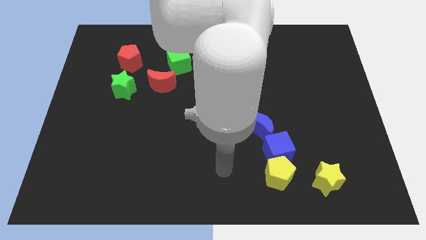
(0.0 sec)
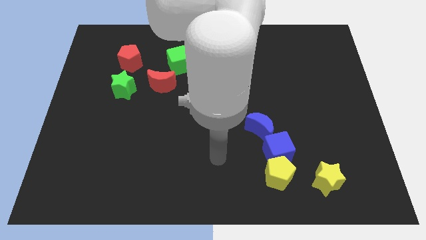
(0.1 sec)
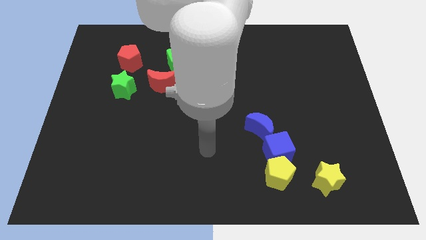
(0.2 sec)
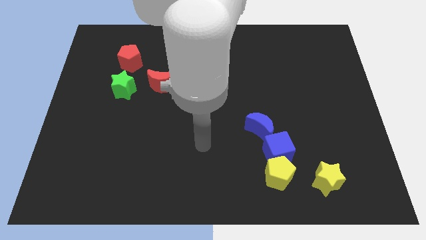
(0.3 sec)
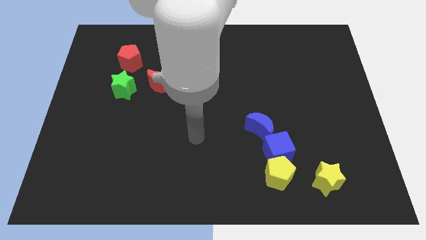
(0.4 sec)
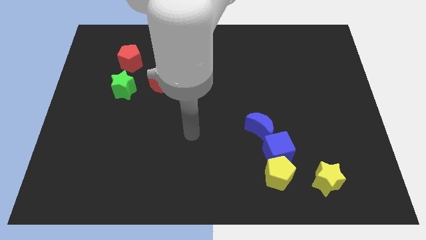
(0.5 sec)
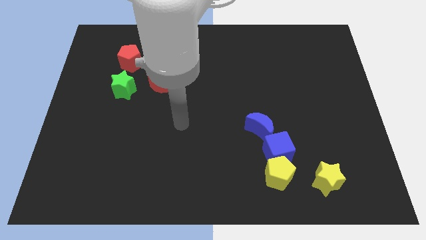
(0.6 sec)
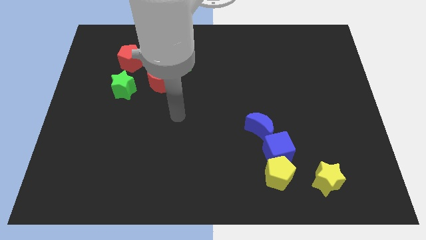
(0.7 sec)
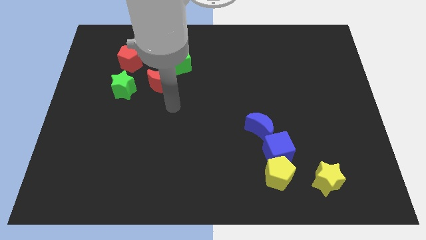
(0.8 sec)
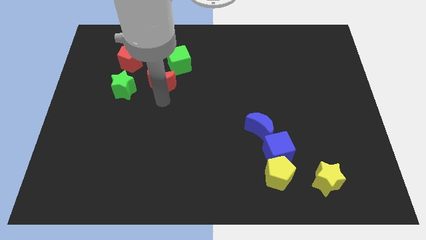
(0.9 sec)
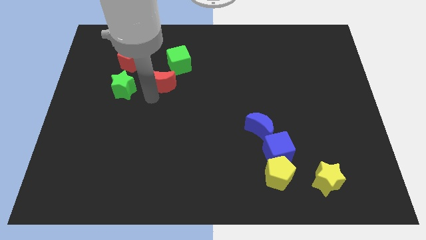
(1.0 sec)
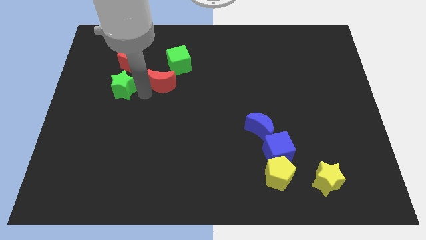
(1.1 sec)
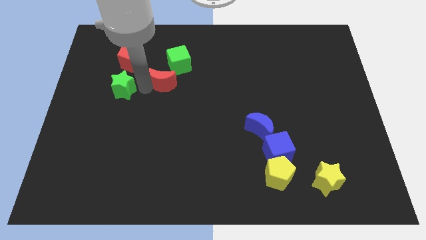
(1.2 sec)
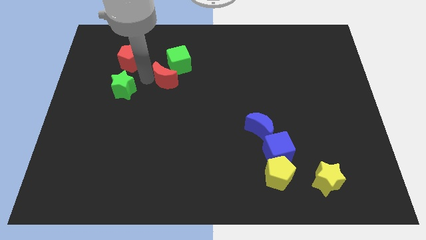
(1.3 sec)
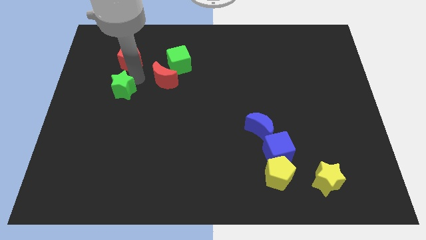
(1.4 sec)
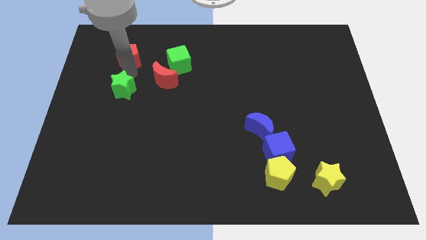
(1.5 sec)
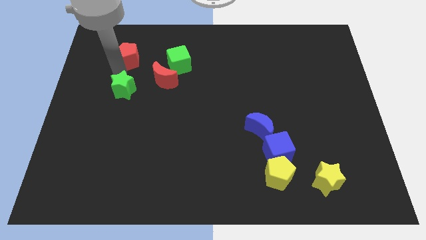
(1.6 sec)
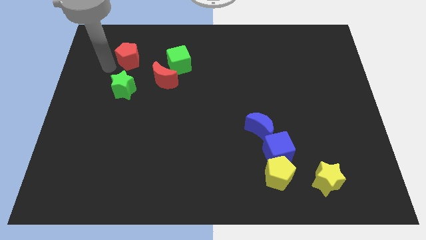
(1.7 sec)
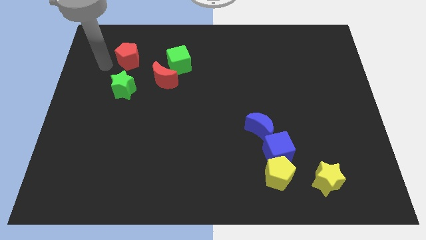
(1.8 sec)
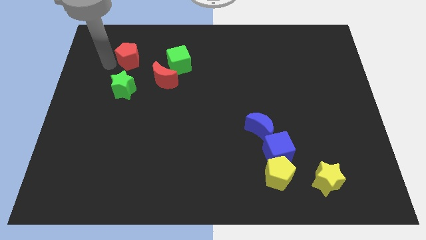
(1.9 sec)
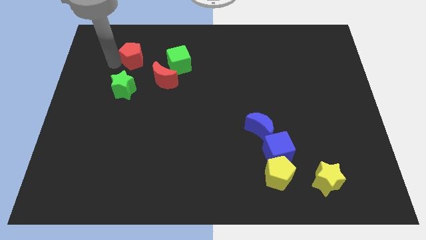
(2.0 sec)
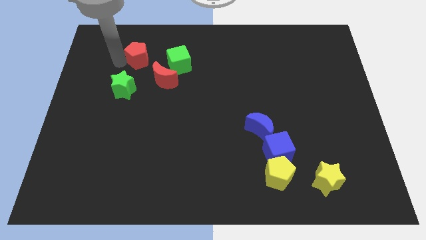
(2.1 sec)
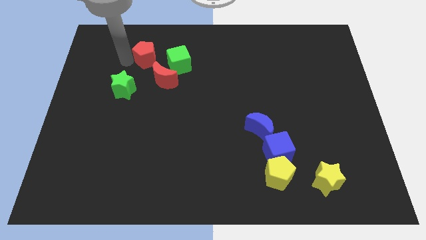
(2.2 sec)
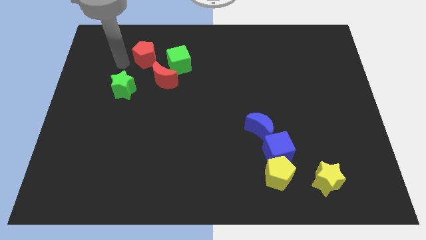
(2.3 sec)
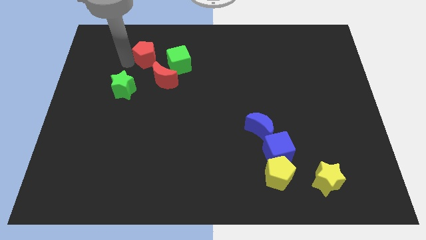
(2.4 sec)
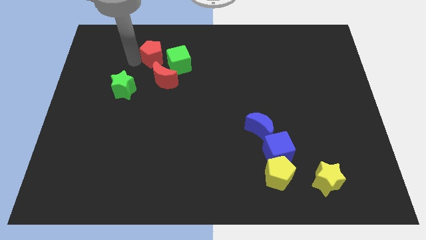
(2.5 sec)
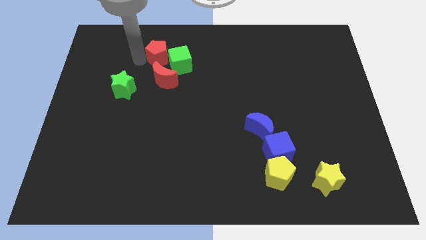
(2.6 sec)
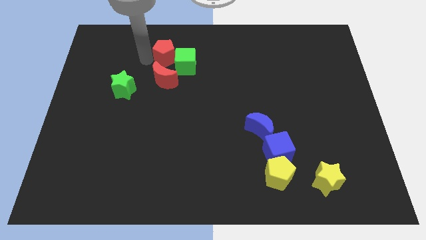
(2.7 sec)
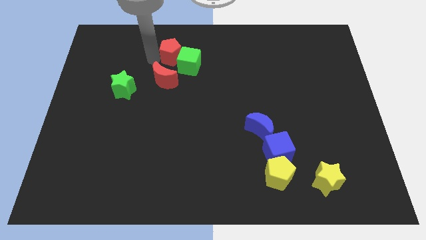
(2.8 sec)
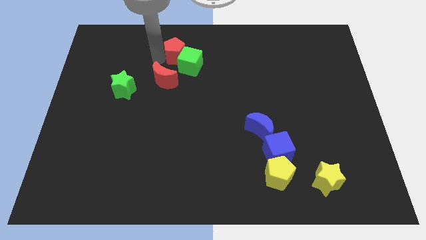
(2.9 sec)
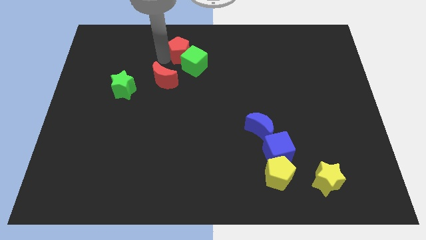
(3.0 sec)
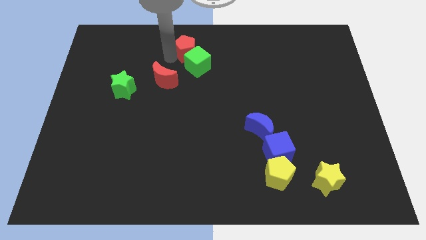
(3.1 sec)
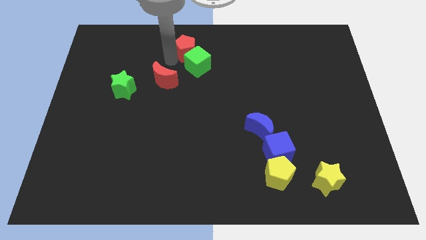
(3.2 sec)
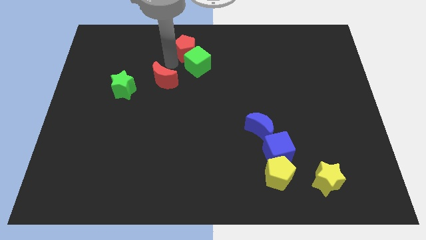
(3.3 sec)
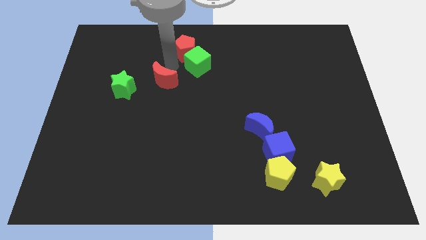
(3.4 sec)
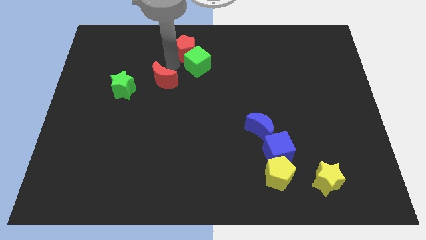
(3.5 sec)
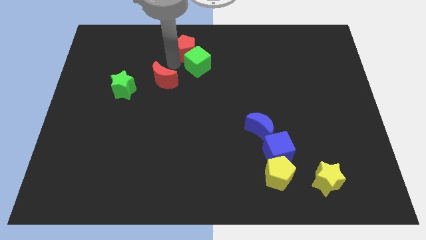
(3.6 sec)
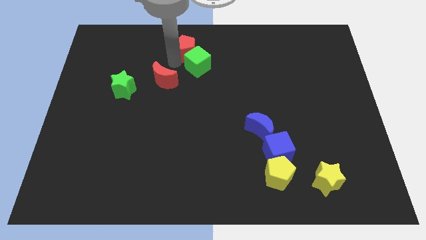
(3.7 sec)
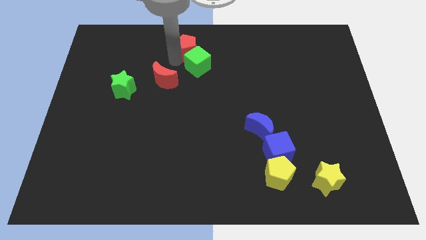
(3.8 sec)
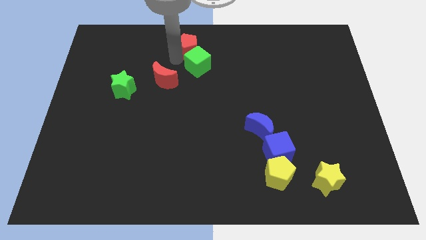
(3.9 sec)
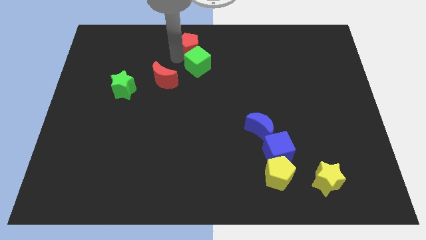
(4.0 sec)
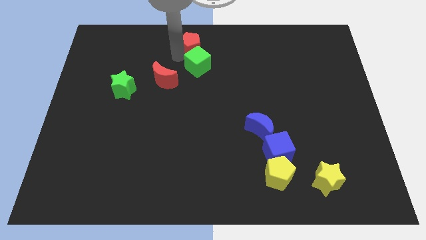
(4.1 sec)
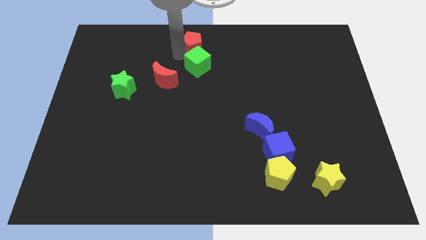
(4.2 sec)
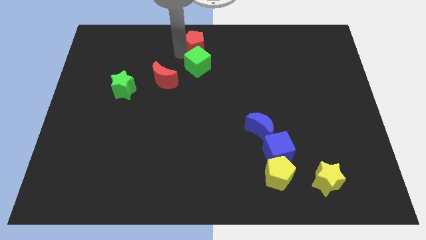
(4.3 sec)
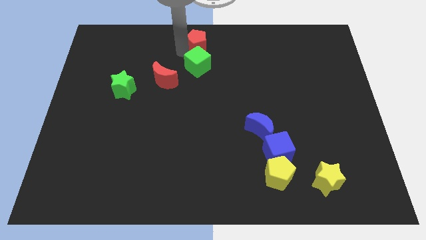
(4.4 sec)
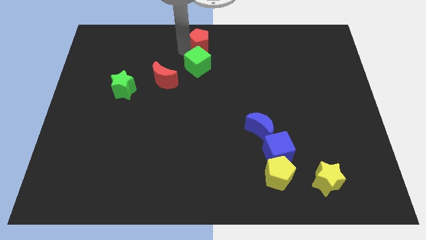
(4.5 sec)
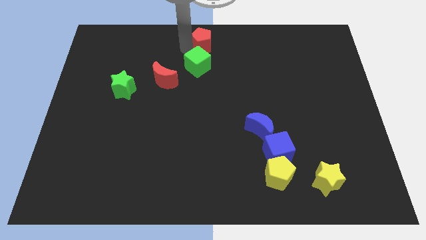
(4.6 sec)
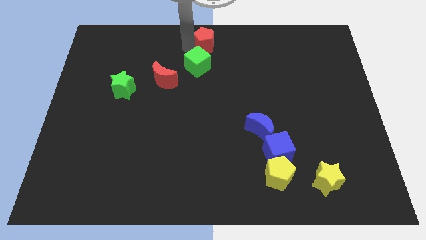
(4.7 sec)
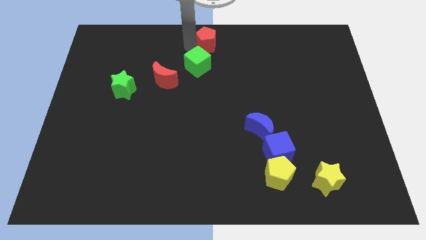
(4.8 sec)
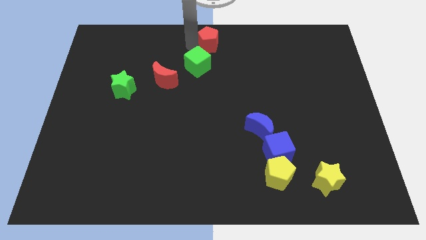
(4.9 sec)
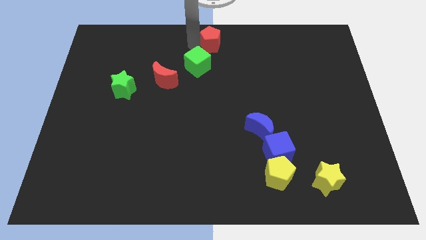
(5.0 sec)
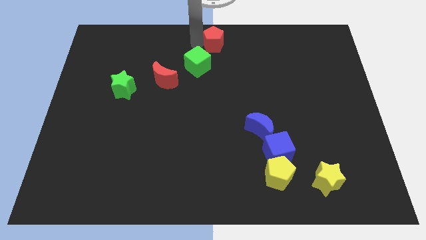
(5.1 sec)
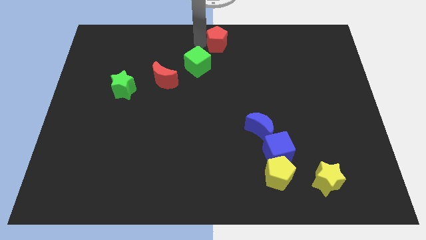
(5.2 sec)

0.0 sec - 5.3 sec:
move the red pentagon to the right

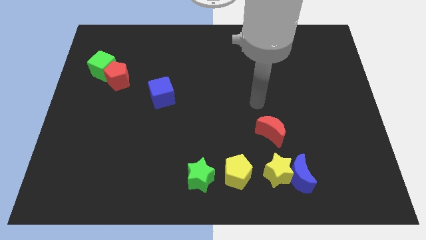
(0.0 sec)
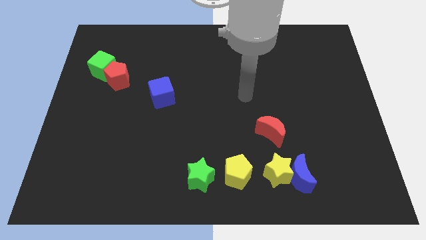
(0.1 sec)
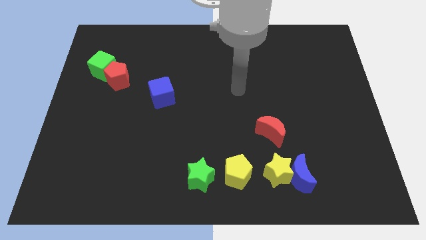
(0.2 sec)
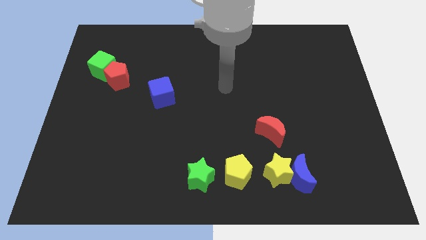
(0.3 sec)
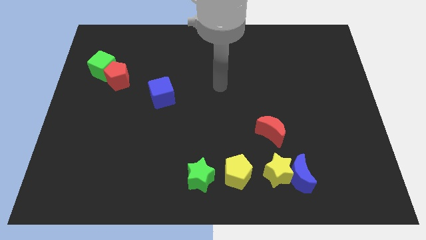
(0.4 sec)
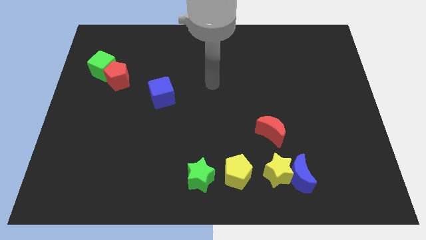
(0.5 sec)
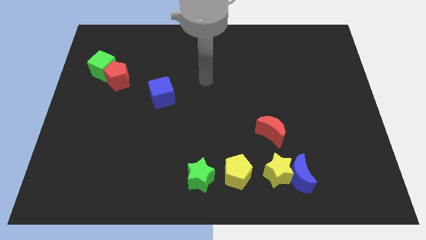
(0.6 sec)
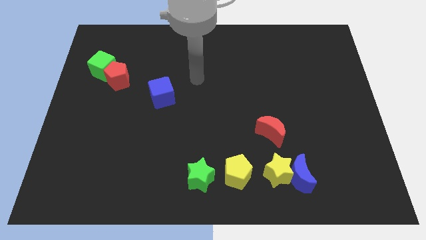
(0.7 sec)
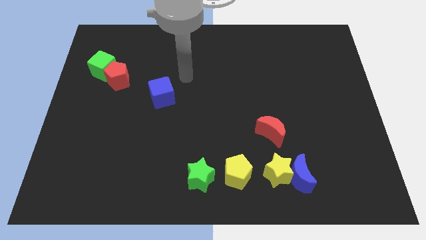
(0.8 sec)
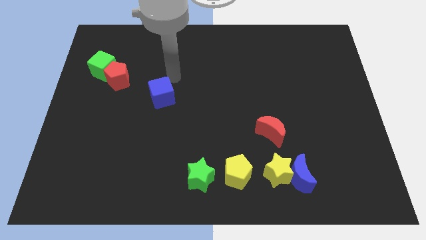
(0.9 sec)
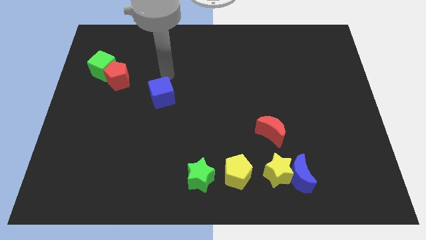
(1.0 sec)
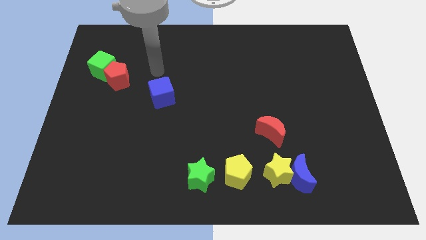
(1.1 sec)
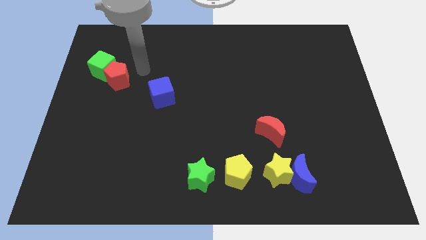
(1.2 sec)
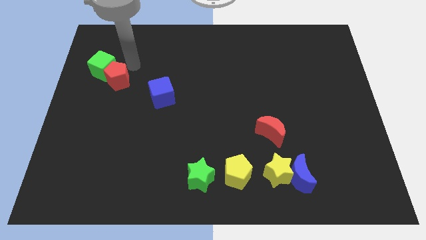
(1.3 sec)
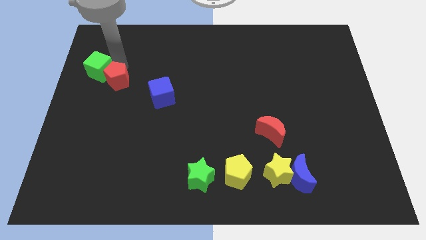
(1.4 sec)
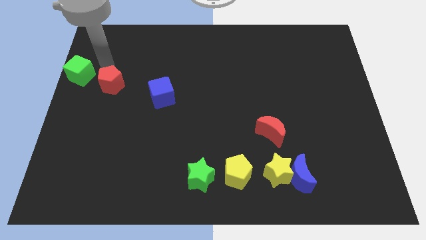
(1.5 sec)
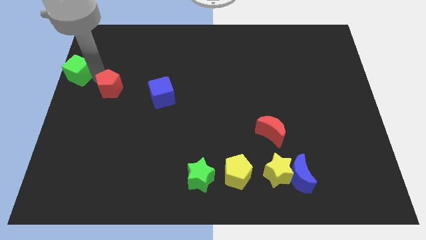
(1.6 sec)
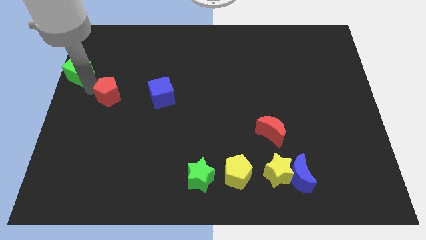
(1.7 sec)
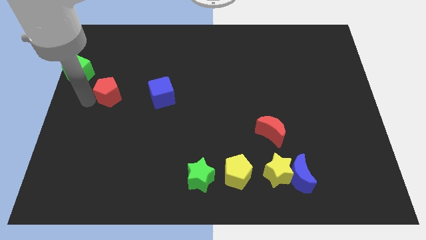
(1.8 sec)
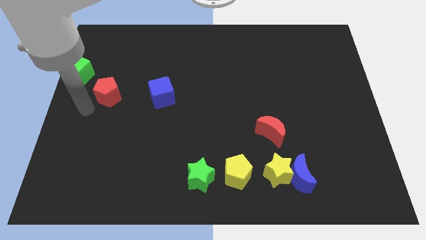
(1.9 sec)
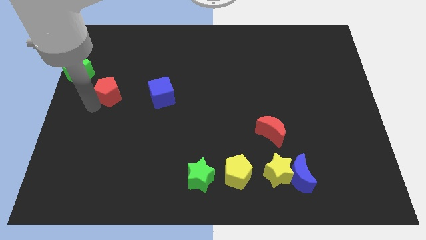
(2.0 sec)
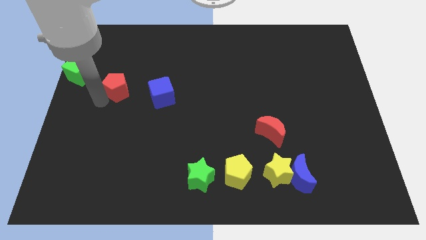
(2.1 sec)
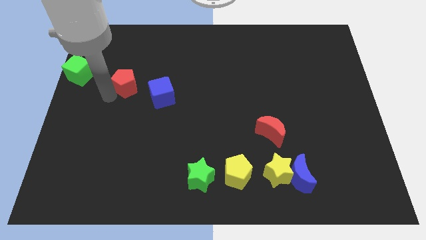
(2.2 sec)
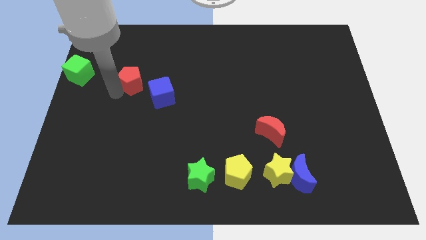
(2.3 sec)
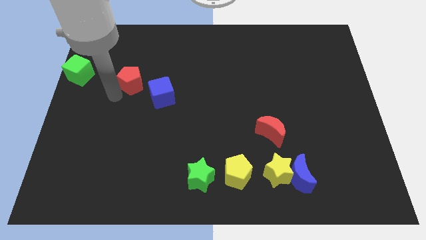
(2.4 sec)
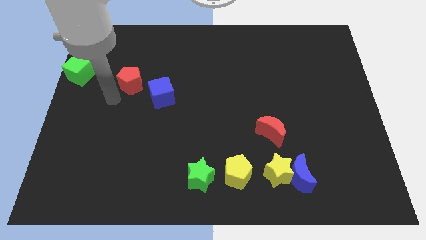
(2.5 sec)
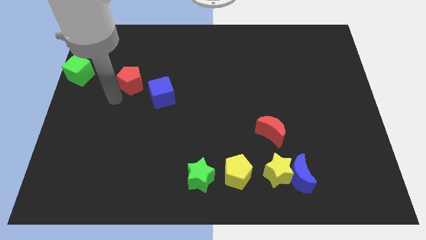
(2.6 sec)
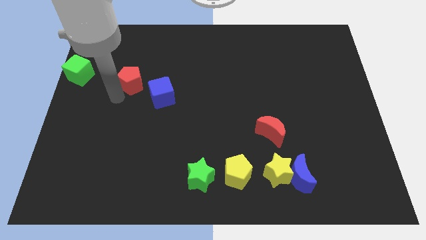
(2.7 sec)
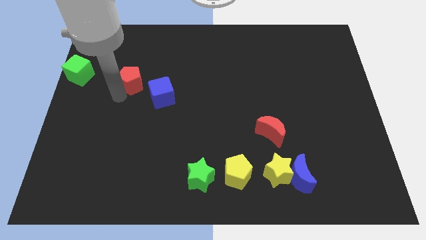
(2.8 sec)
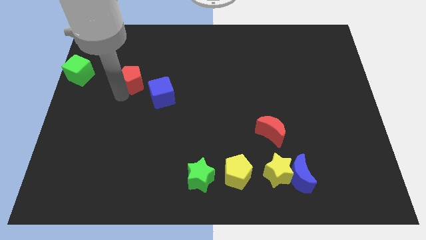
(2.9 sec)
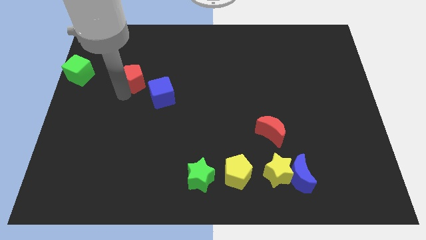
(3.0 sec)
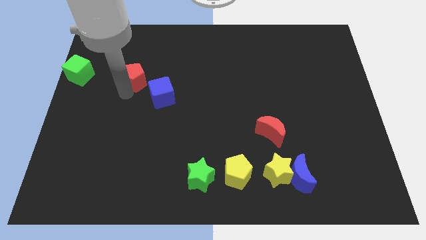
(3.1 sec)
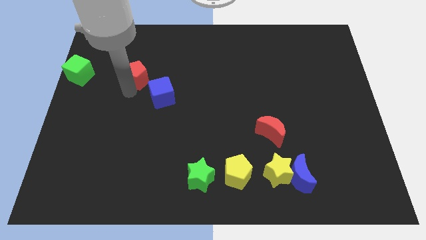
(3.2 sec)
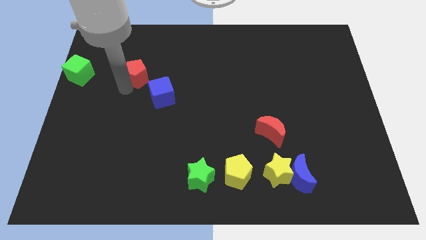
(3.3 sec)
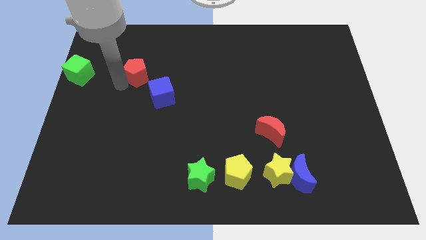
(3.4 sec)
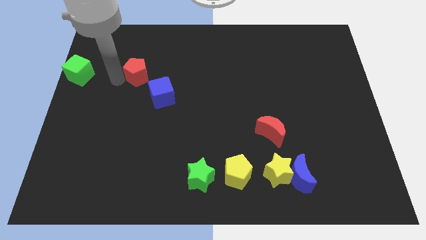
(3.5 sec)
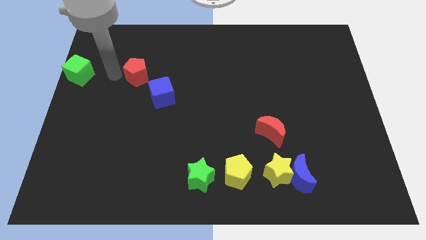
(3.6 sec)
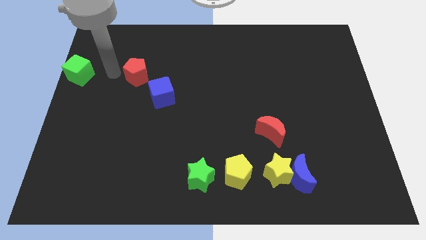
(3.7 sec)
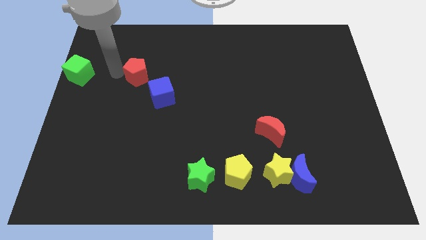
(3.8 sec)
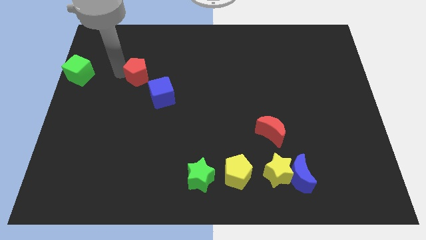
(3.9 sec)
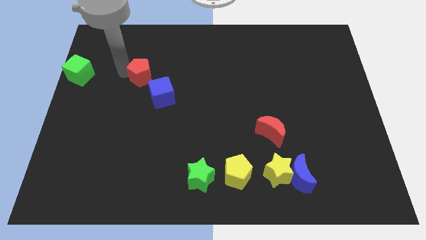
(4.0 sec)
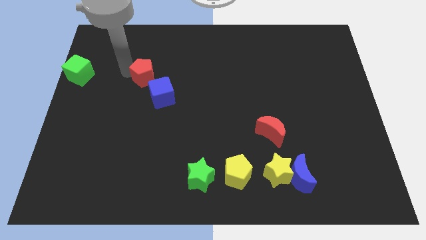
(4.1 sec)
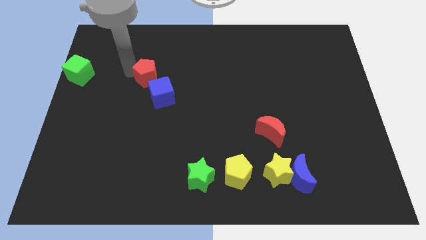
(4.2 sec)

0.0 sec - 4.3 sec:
slightly slide the red pentagon right
